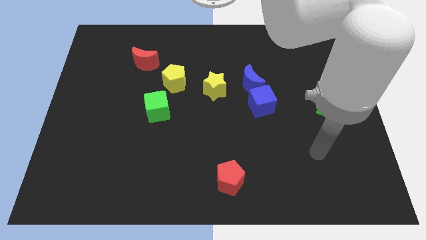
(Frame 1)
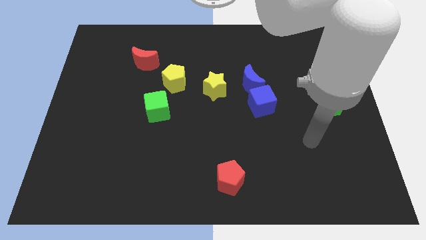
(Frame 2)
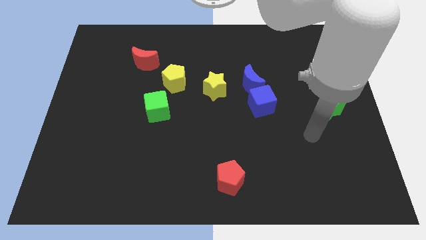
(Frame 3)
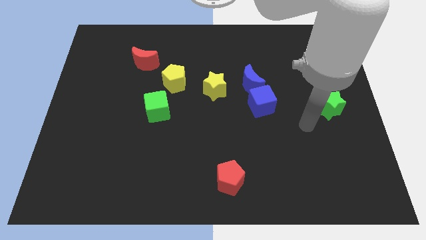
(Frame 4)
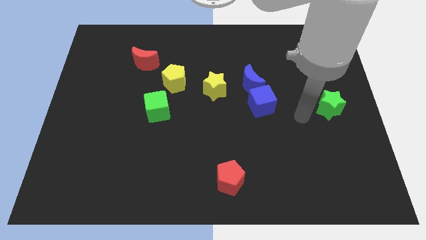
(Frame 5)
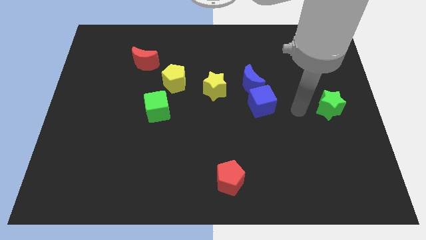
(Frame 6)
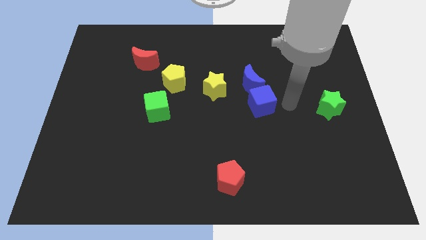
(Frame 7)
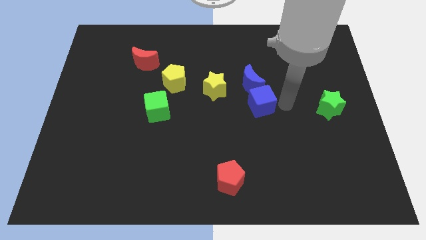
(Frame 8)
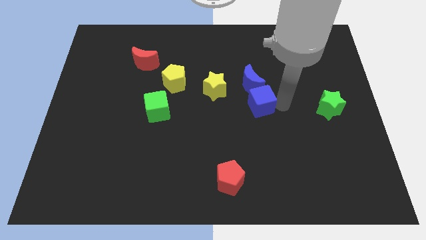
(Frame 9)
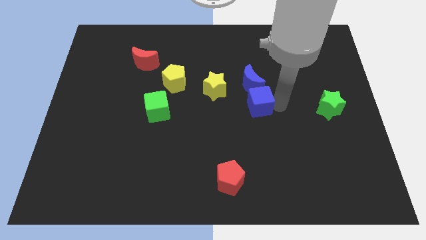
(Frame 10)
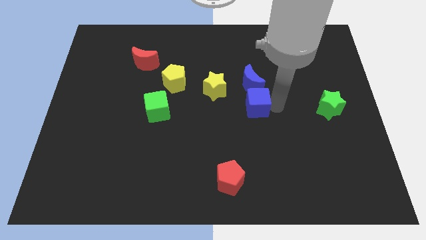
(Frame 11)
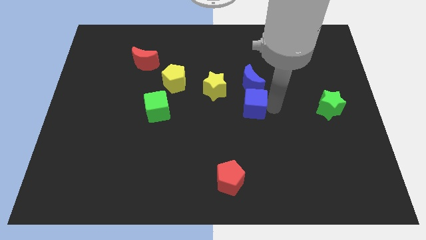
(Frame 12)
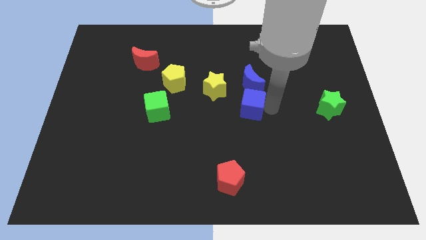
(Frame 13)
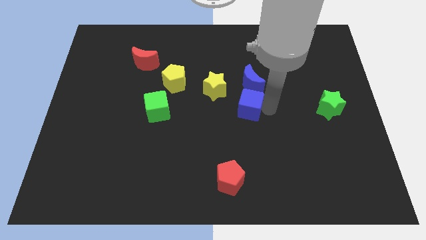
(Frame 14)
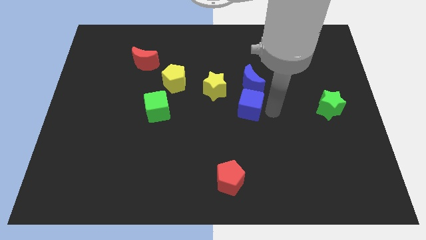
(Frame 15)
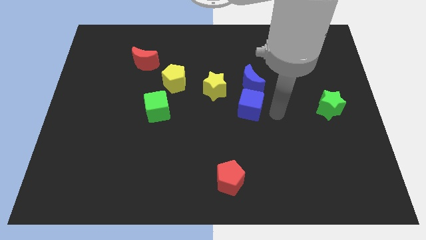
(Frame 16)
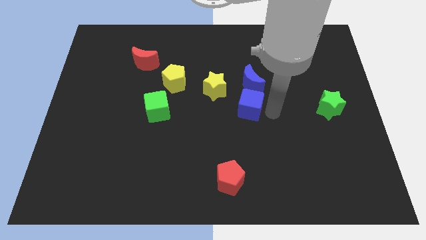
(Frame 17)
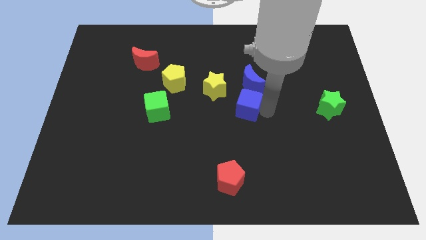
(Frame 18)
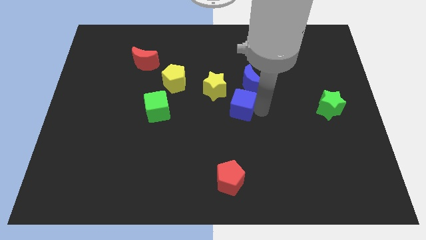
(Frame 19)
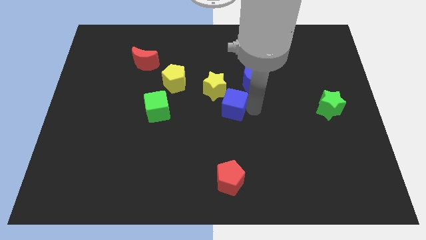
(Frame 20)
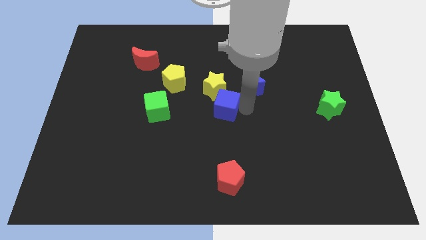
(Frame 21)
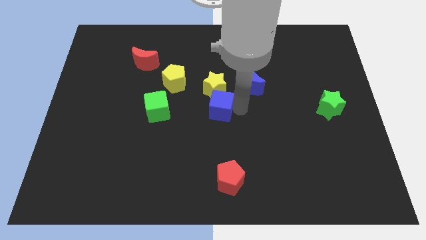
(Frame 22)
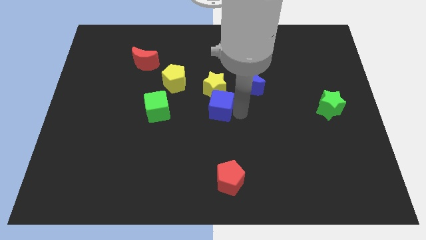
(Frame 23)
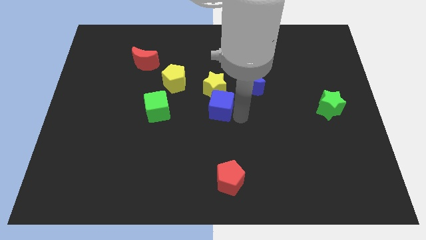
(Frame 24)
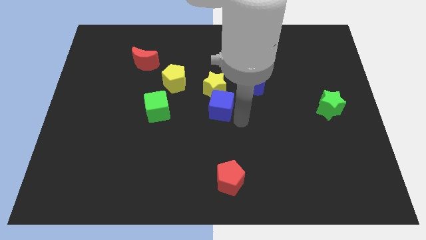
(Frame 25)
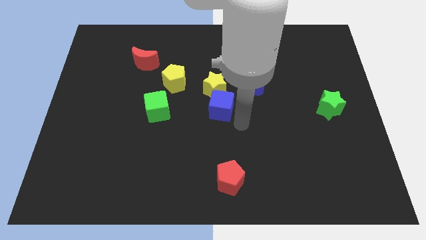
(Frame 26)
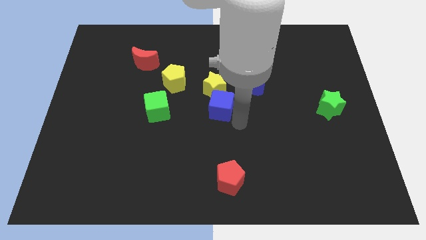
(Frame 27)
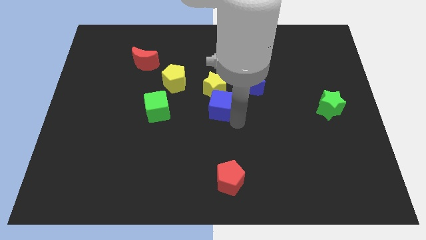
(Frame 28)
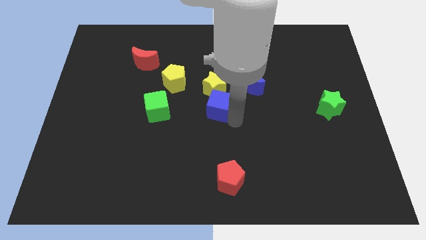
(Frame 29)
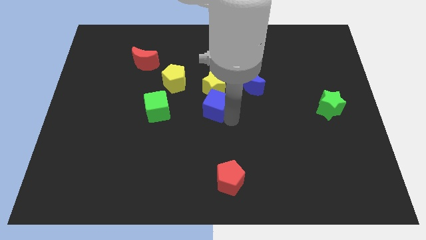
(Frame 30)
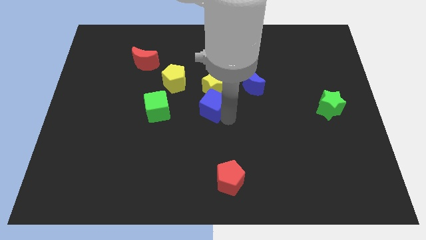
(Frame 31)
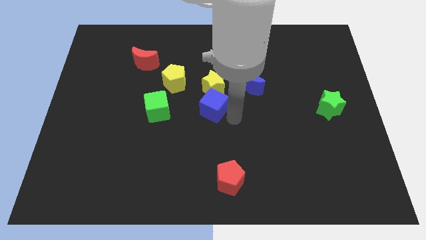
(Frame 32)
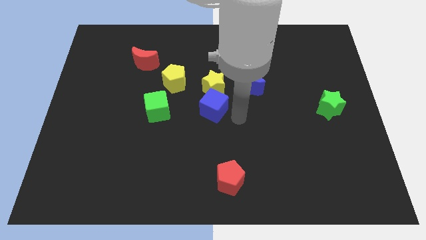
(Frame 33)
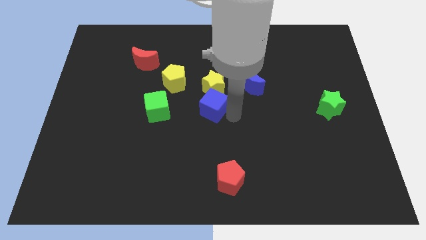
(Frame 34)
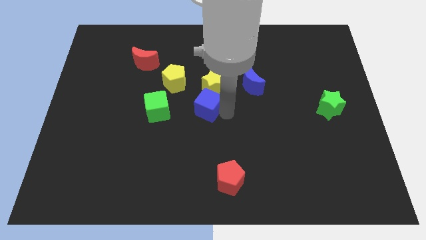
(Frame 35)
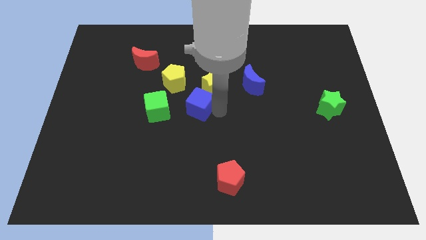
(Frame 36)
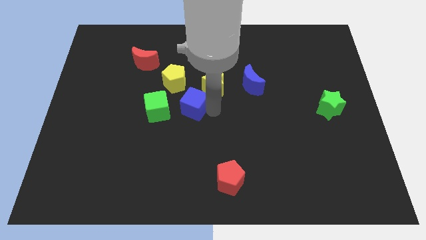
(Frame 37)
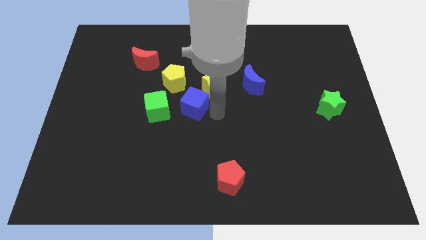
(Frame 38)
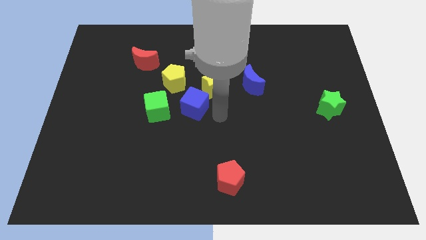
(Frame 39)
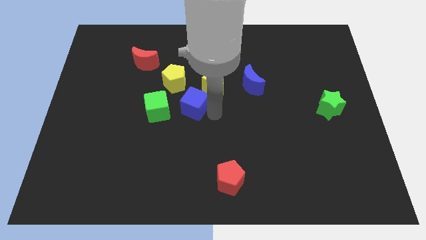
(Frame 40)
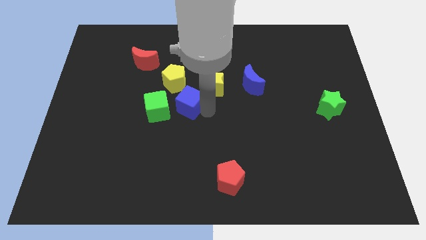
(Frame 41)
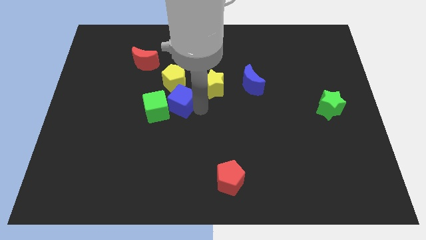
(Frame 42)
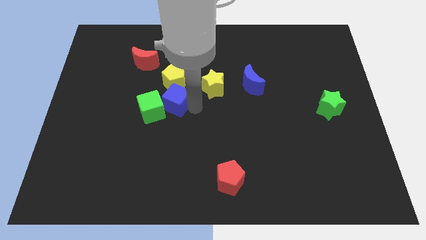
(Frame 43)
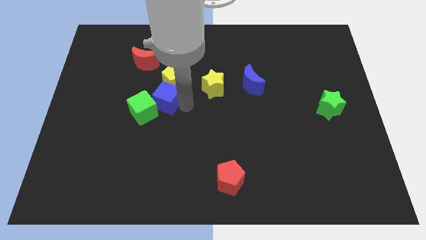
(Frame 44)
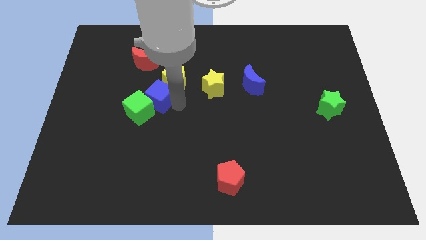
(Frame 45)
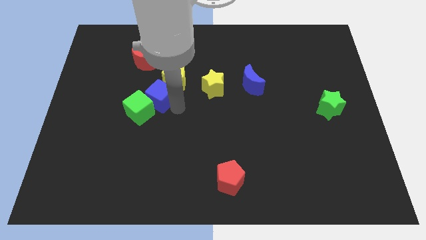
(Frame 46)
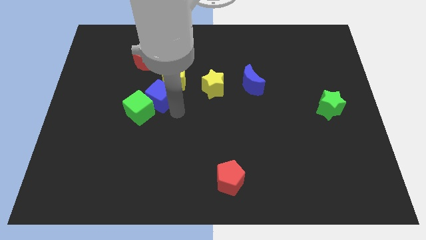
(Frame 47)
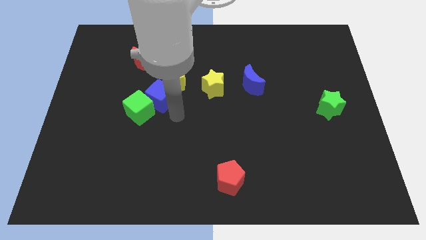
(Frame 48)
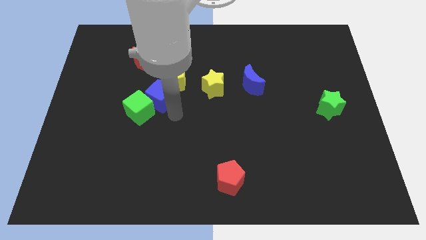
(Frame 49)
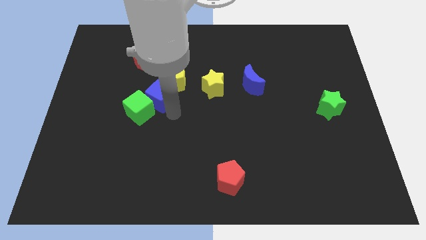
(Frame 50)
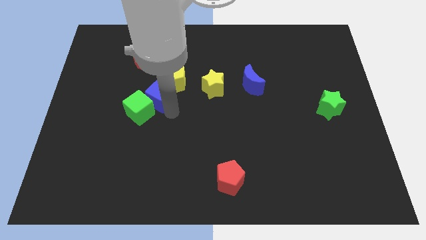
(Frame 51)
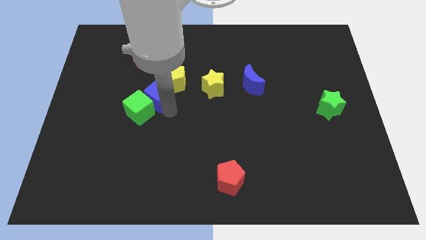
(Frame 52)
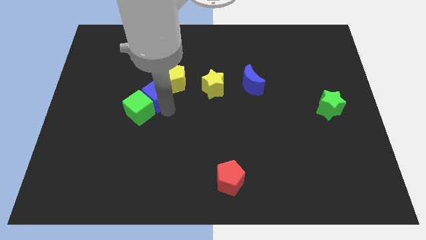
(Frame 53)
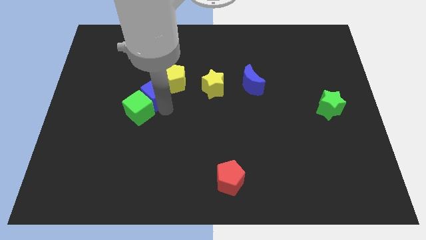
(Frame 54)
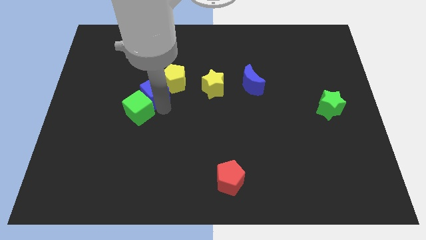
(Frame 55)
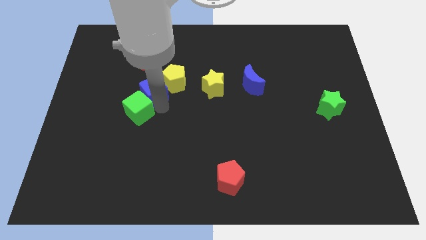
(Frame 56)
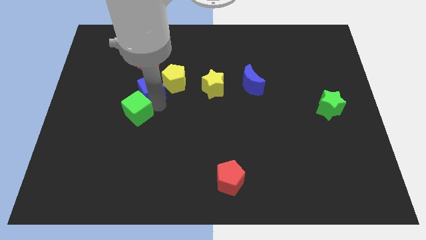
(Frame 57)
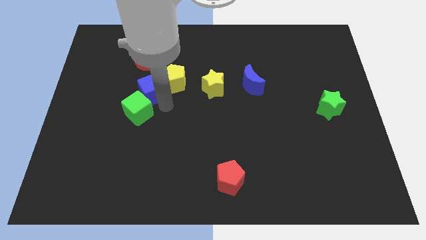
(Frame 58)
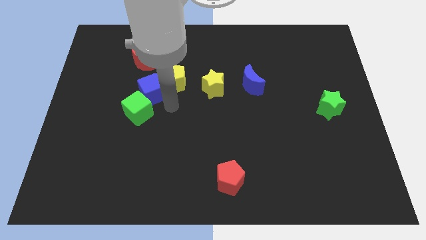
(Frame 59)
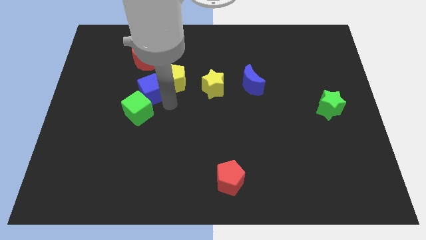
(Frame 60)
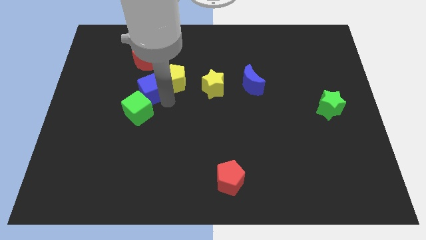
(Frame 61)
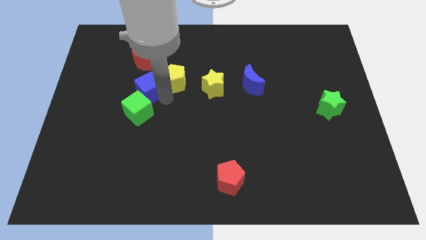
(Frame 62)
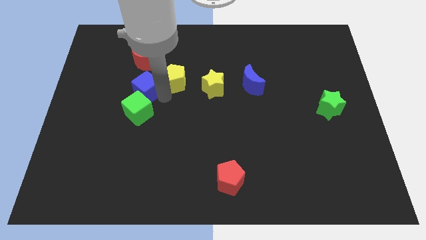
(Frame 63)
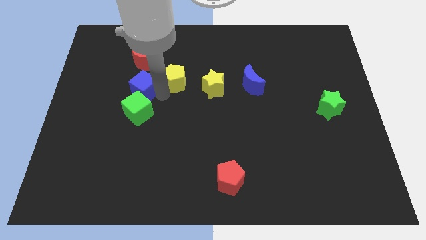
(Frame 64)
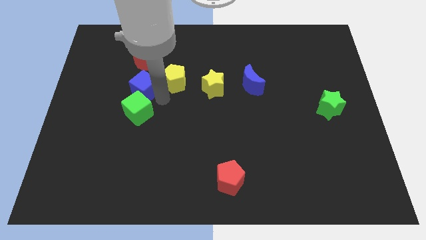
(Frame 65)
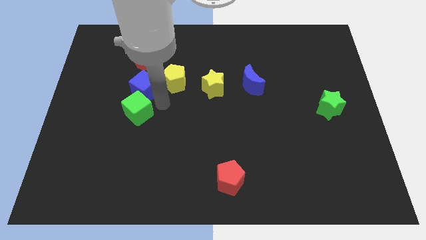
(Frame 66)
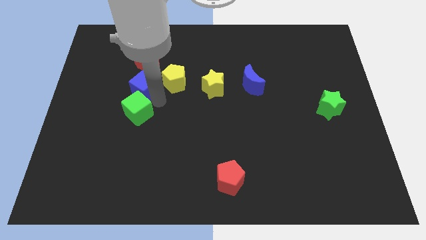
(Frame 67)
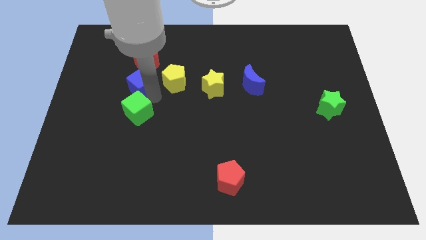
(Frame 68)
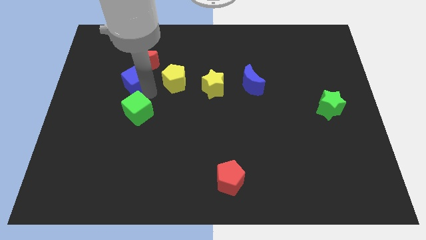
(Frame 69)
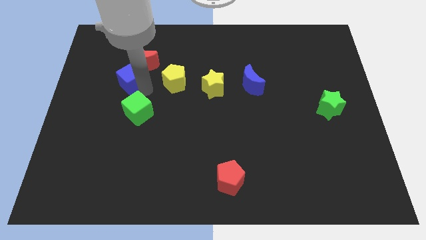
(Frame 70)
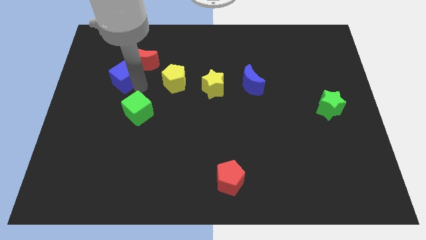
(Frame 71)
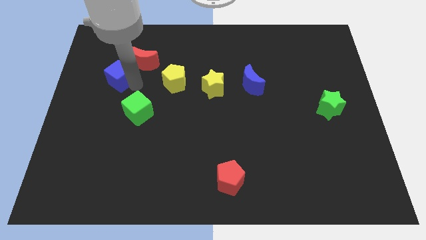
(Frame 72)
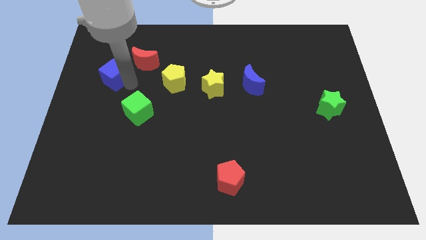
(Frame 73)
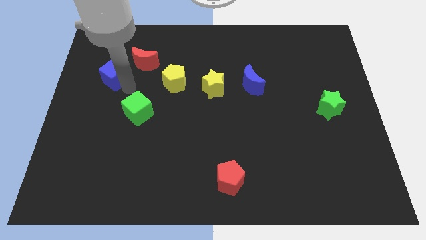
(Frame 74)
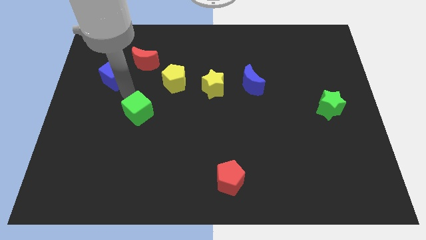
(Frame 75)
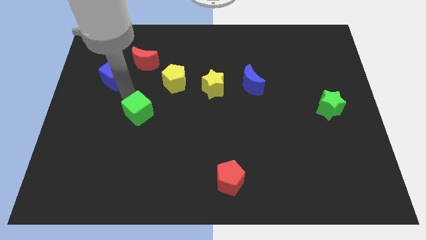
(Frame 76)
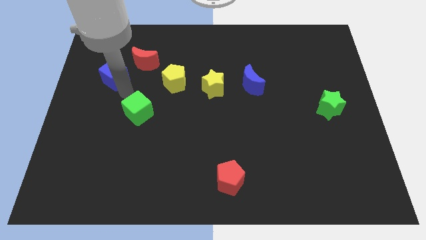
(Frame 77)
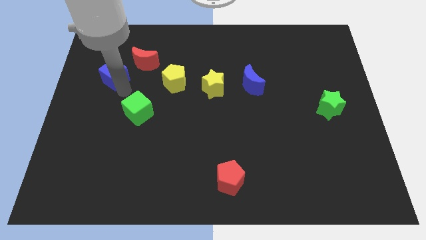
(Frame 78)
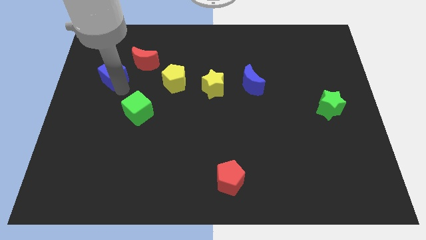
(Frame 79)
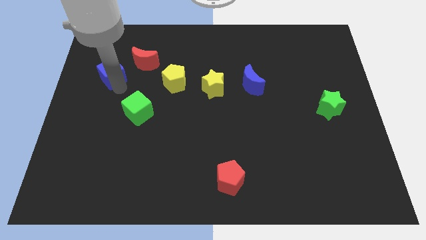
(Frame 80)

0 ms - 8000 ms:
move the blue cube left of the red moon
